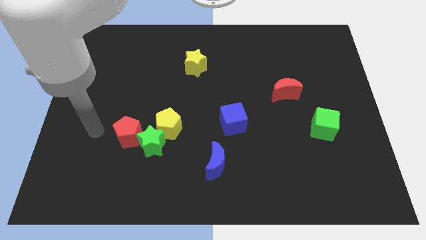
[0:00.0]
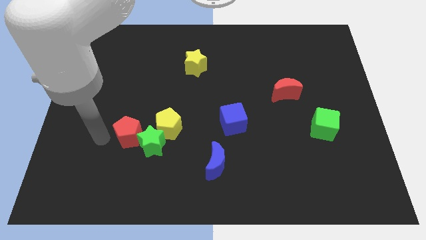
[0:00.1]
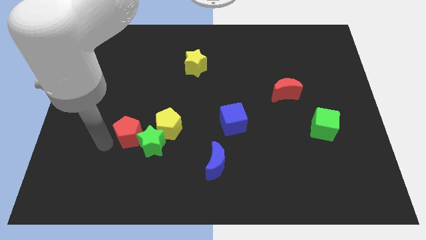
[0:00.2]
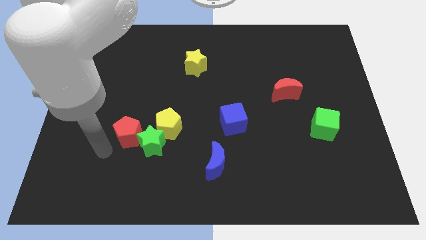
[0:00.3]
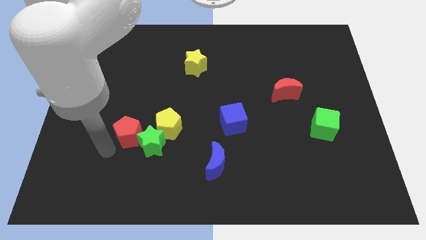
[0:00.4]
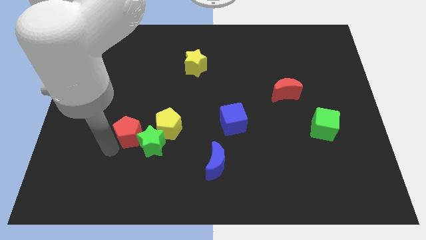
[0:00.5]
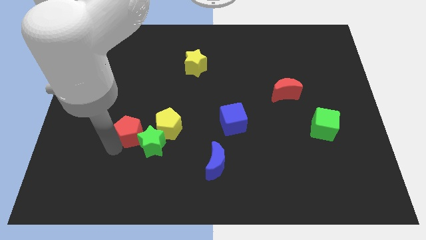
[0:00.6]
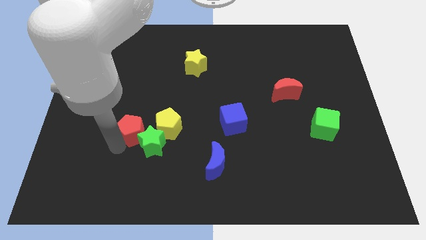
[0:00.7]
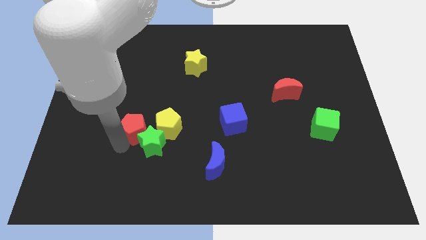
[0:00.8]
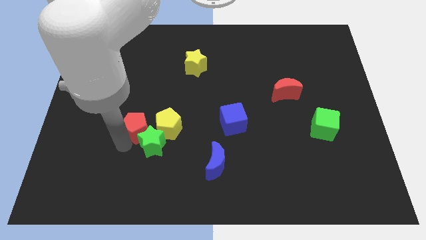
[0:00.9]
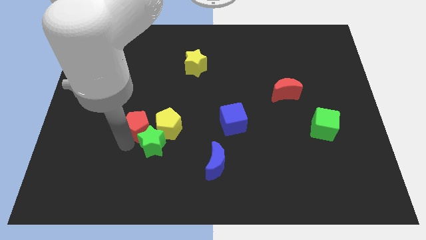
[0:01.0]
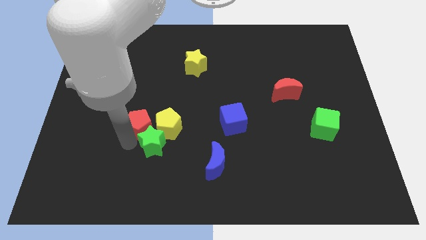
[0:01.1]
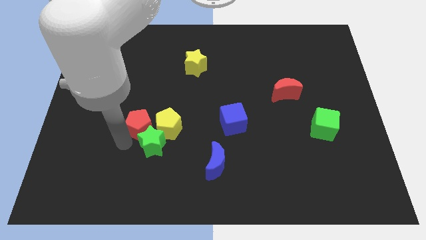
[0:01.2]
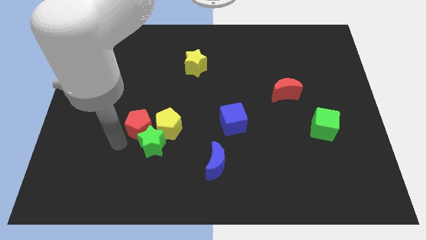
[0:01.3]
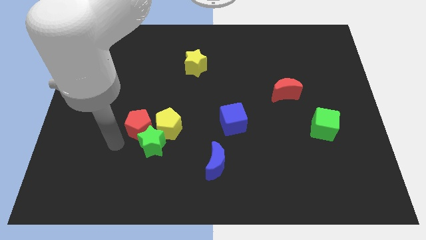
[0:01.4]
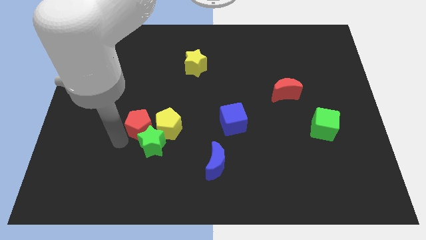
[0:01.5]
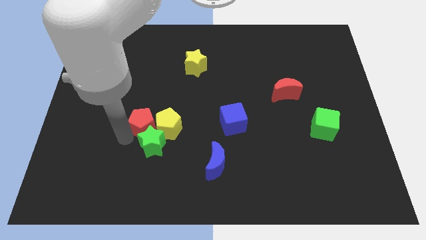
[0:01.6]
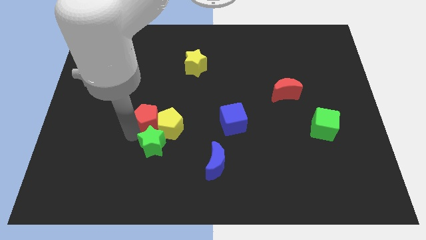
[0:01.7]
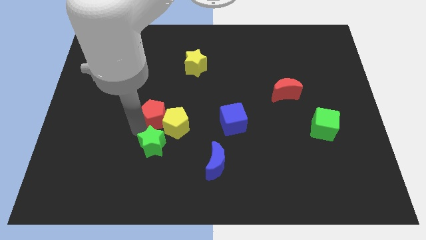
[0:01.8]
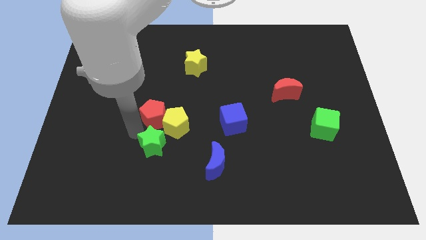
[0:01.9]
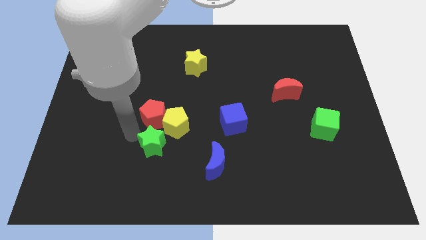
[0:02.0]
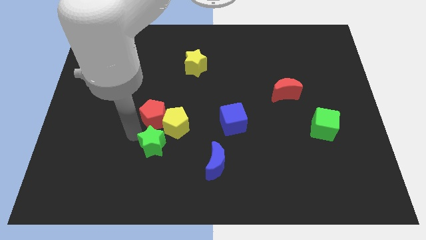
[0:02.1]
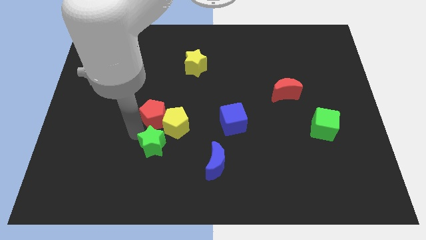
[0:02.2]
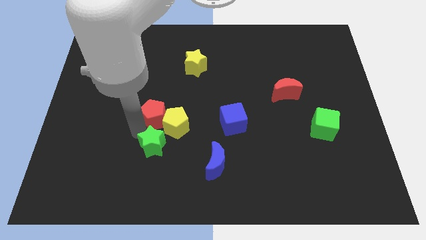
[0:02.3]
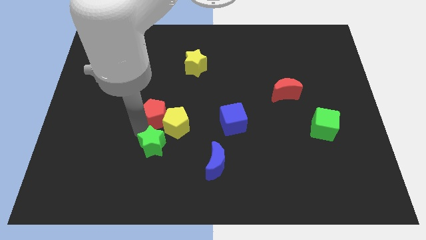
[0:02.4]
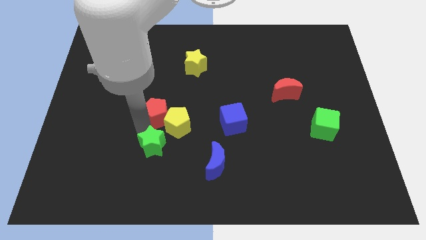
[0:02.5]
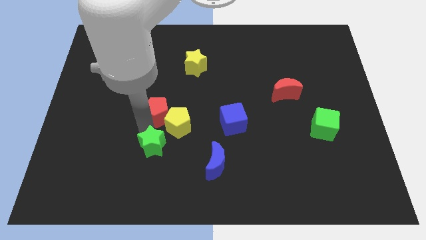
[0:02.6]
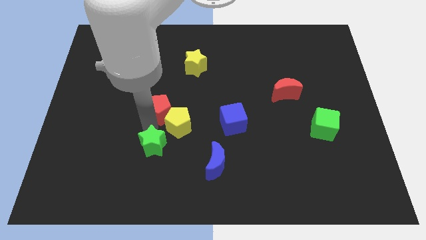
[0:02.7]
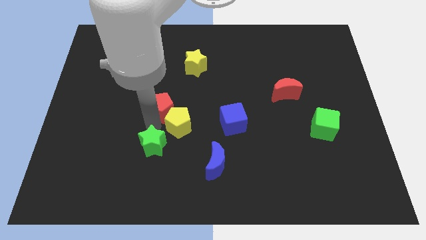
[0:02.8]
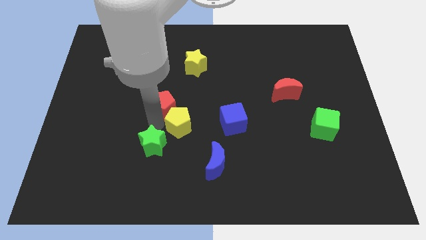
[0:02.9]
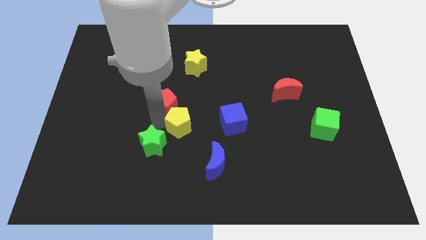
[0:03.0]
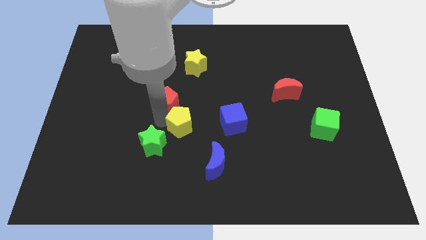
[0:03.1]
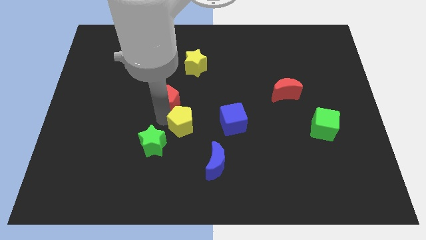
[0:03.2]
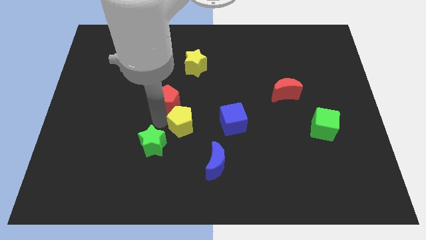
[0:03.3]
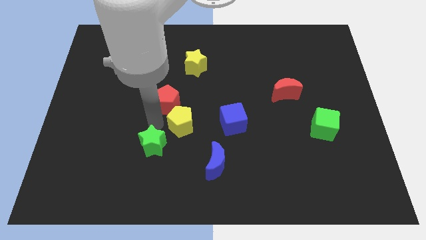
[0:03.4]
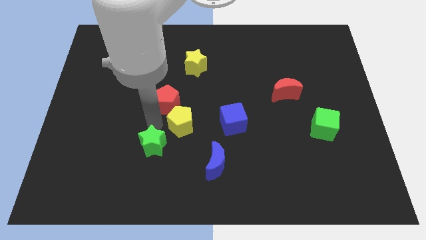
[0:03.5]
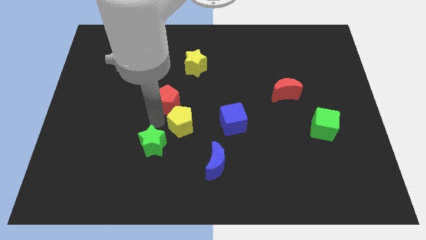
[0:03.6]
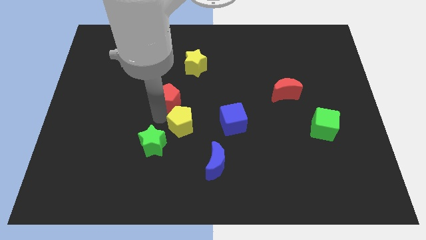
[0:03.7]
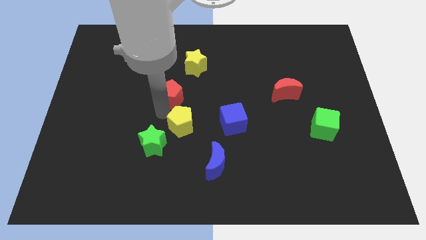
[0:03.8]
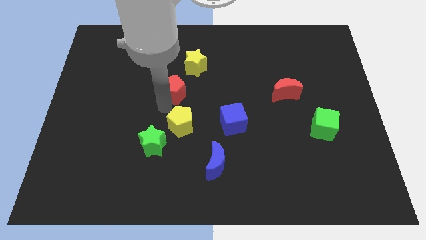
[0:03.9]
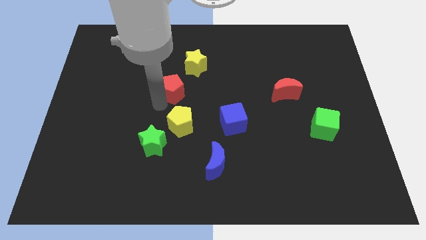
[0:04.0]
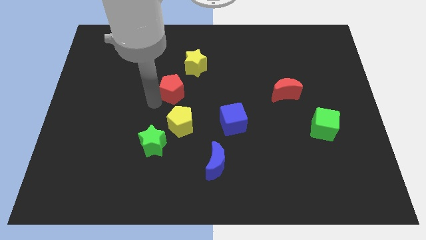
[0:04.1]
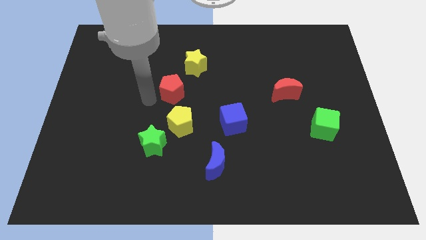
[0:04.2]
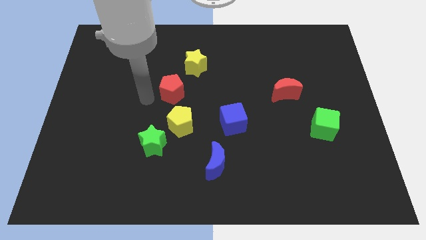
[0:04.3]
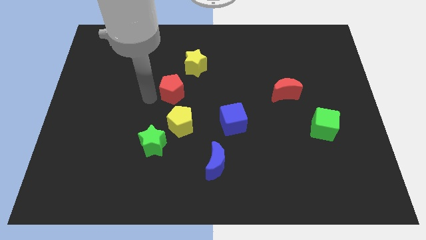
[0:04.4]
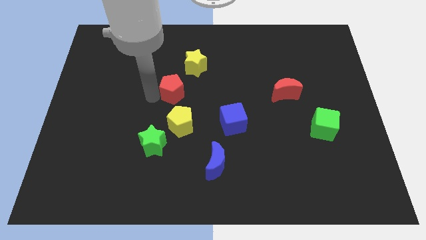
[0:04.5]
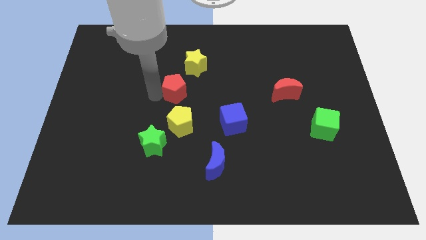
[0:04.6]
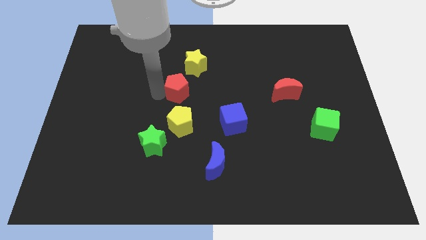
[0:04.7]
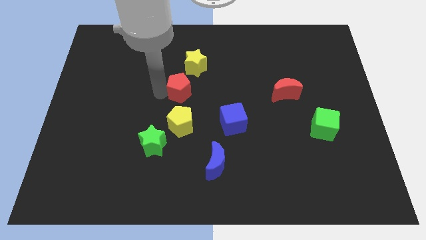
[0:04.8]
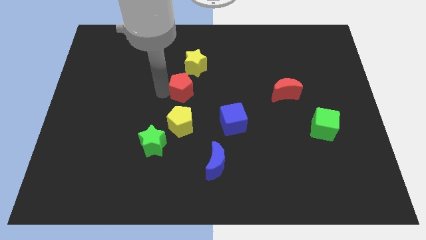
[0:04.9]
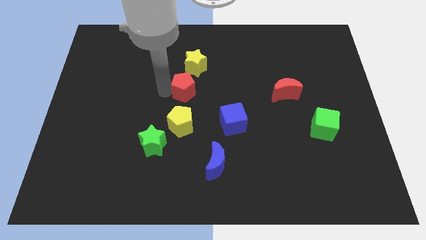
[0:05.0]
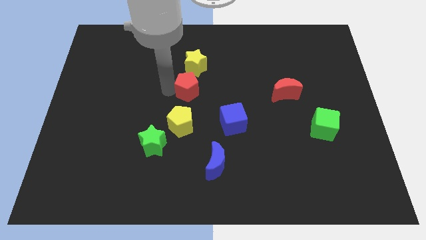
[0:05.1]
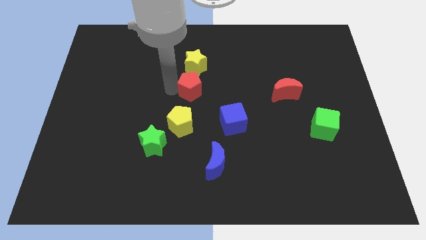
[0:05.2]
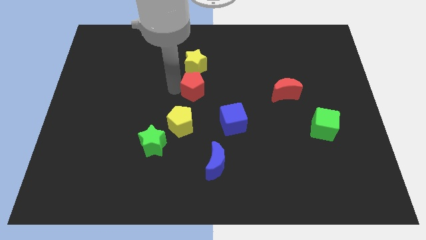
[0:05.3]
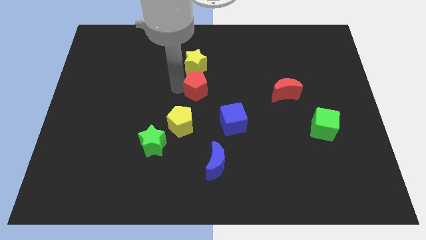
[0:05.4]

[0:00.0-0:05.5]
push the red pentagon to the bottom right side of the yellow star

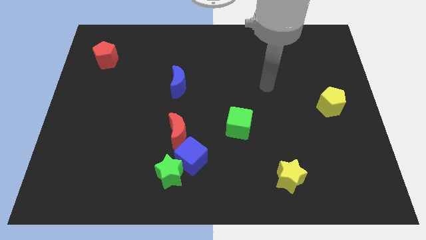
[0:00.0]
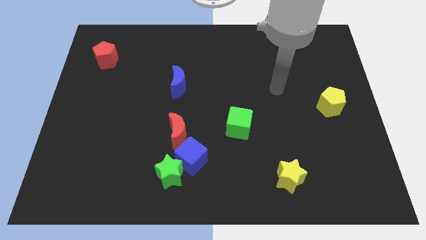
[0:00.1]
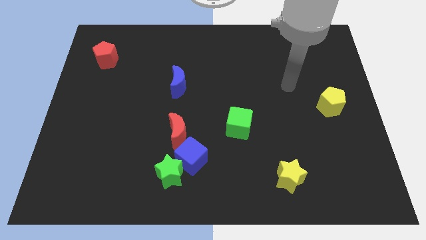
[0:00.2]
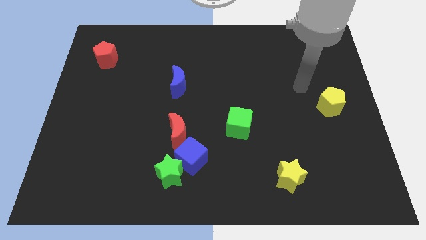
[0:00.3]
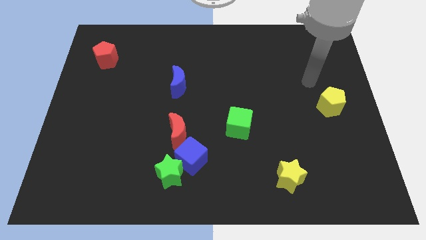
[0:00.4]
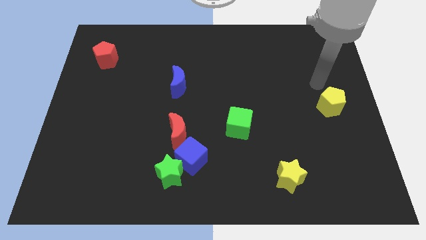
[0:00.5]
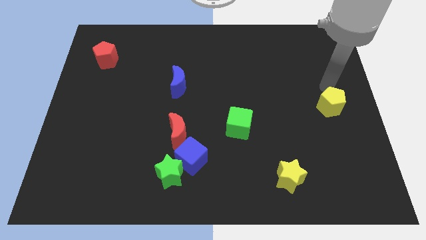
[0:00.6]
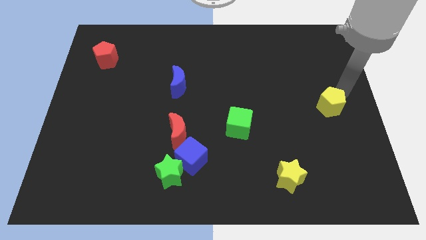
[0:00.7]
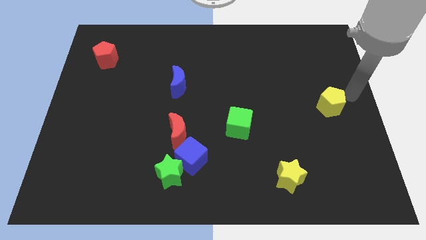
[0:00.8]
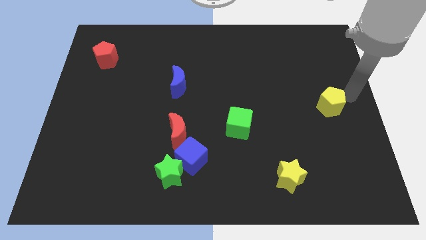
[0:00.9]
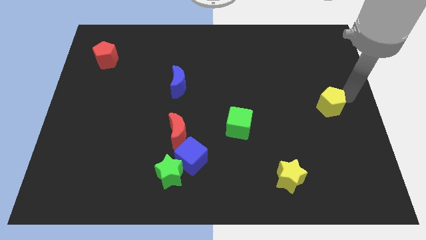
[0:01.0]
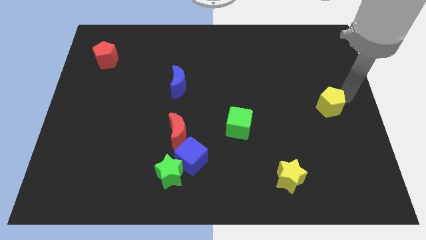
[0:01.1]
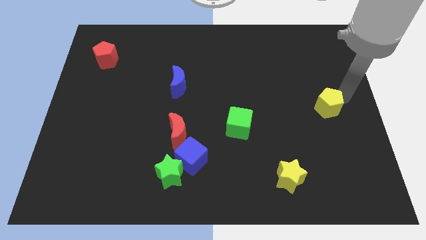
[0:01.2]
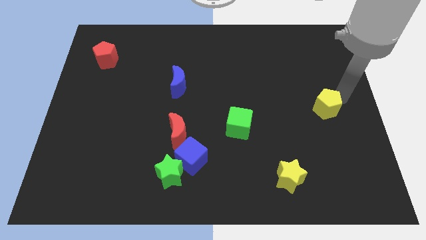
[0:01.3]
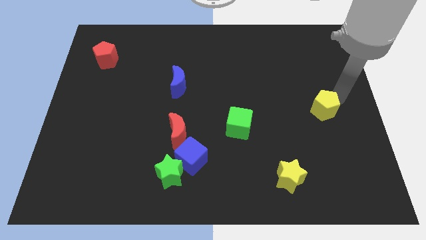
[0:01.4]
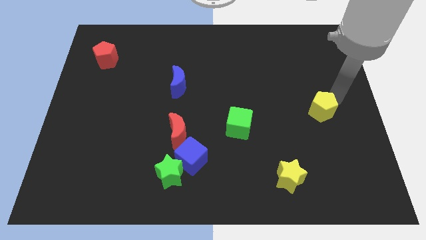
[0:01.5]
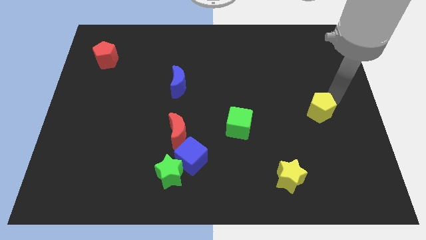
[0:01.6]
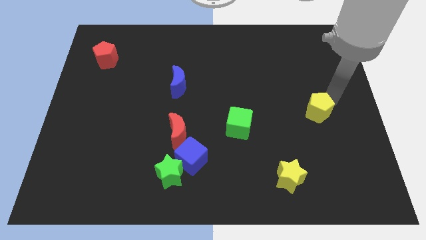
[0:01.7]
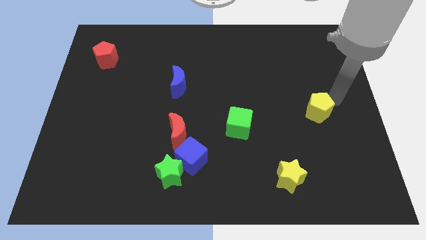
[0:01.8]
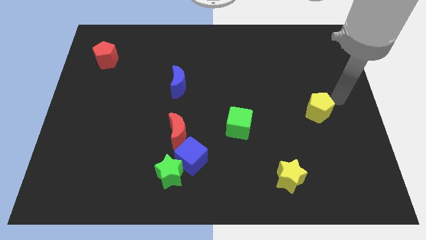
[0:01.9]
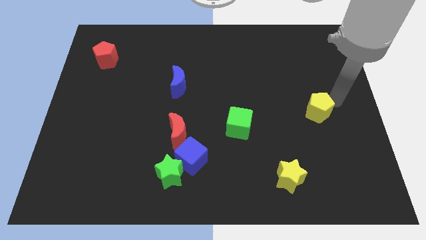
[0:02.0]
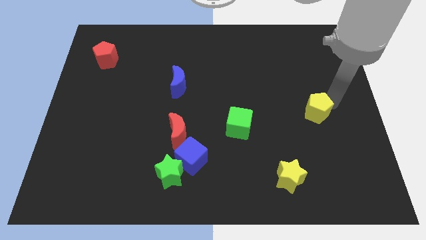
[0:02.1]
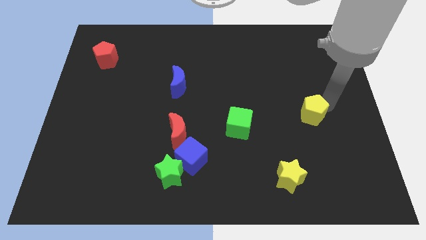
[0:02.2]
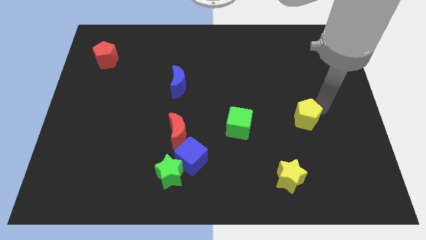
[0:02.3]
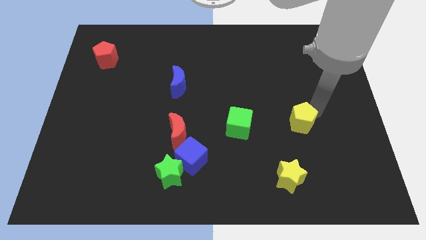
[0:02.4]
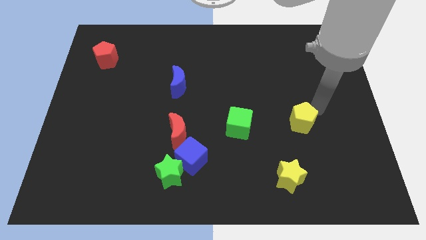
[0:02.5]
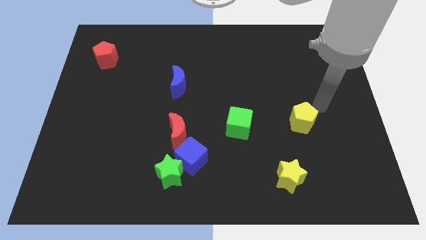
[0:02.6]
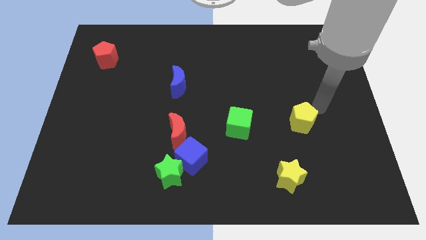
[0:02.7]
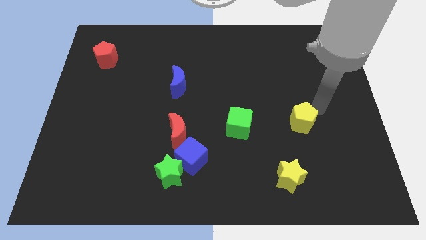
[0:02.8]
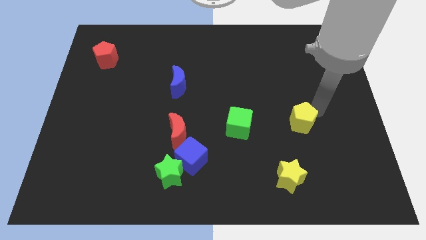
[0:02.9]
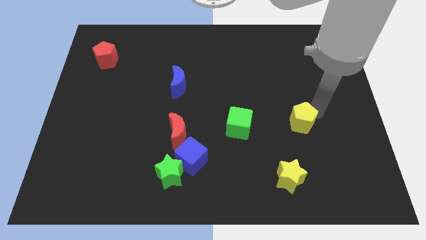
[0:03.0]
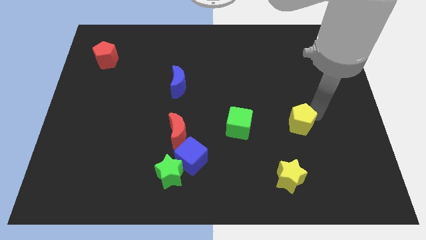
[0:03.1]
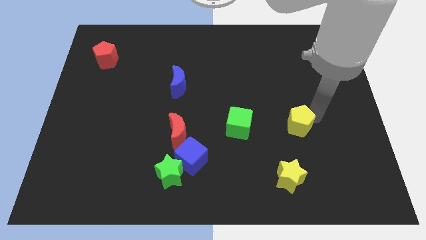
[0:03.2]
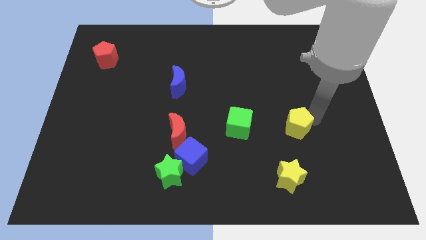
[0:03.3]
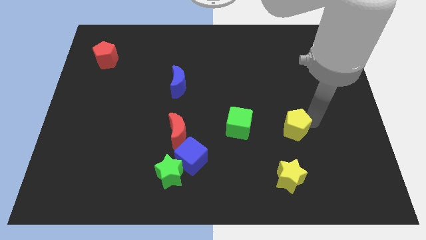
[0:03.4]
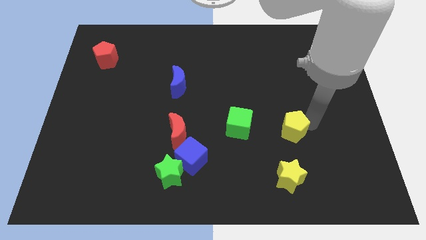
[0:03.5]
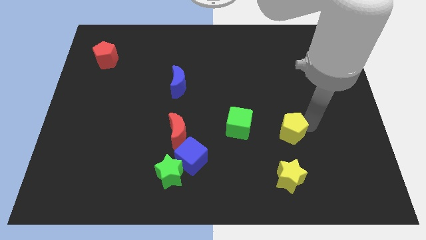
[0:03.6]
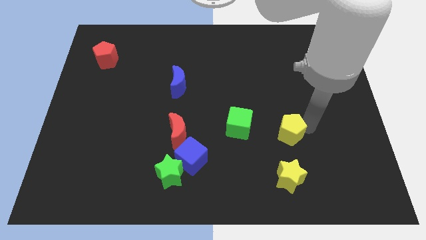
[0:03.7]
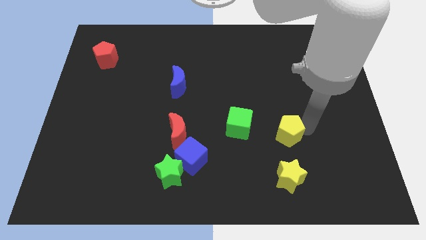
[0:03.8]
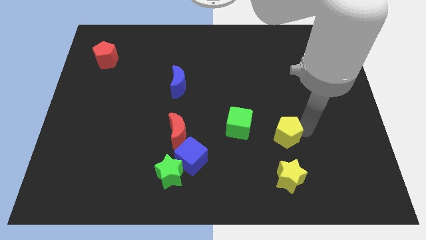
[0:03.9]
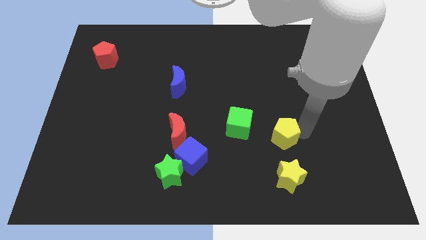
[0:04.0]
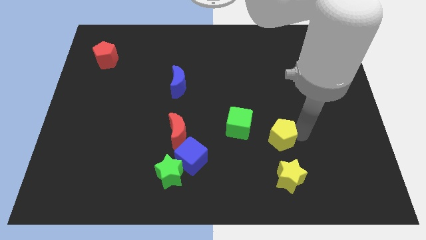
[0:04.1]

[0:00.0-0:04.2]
slide the yellow pentagon diagonally down and to the right of the green cube
